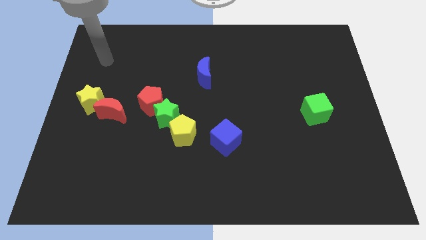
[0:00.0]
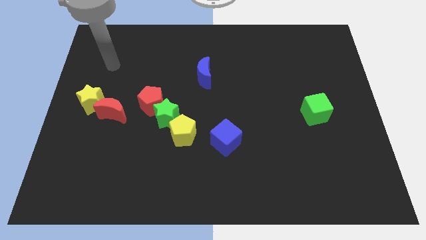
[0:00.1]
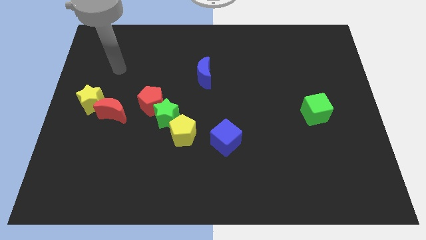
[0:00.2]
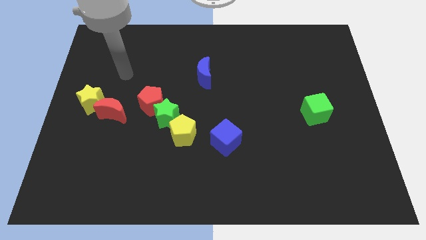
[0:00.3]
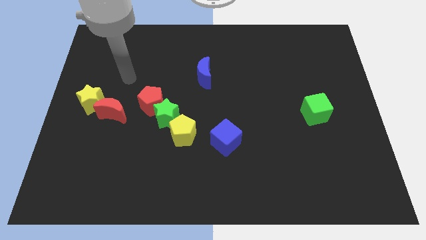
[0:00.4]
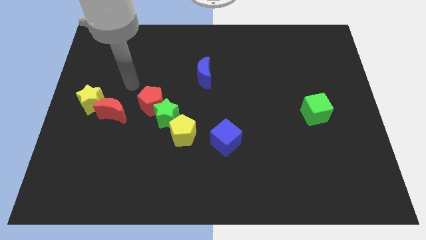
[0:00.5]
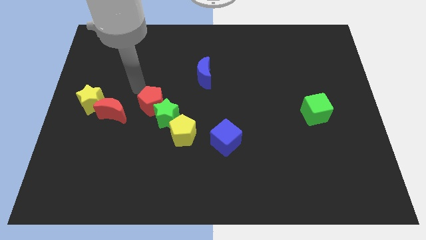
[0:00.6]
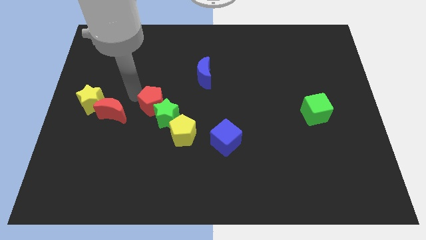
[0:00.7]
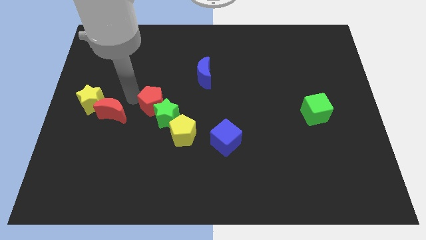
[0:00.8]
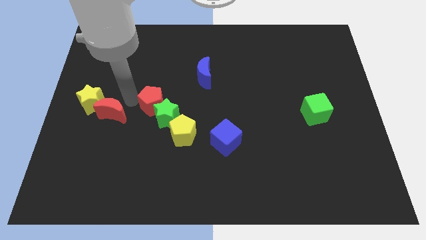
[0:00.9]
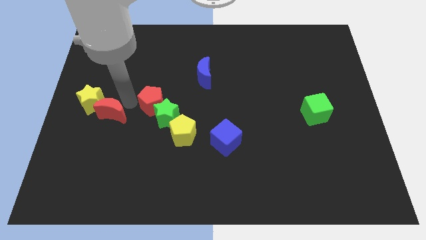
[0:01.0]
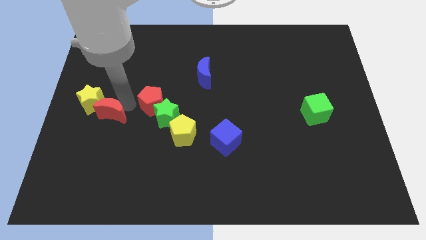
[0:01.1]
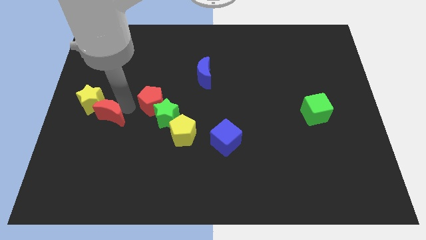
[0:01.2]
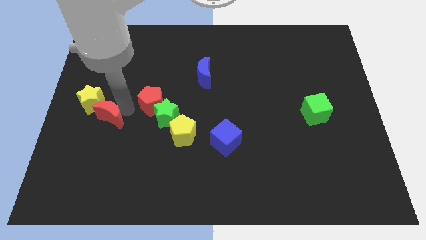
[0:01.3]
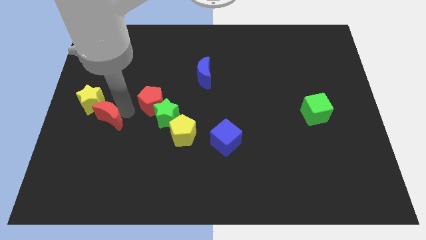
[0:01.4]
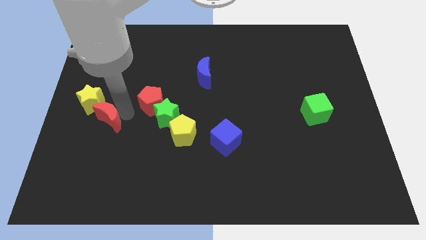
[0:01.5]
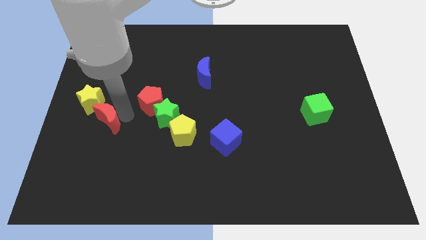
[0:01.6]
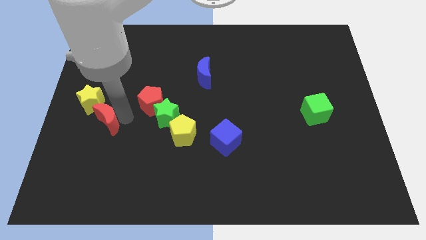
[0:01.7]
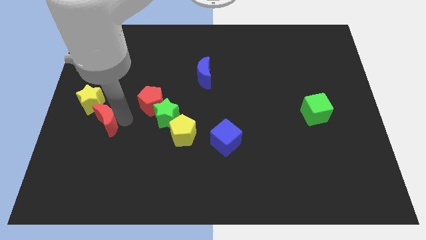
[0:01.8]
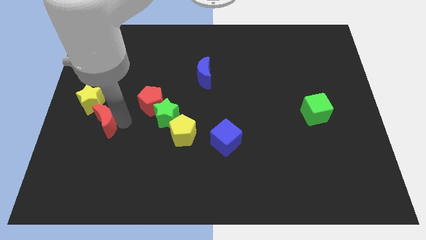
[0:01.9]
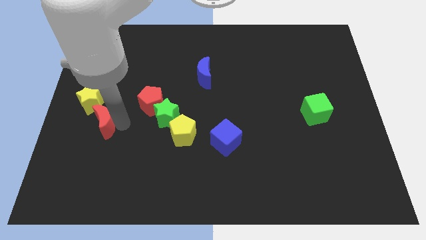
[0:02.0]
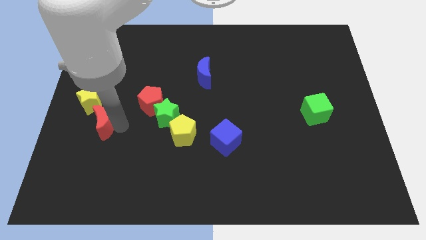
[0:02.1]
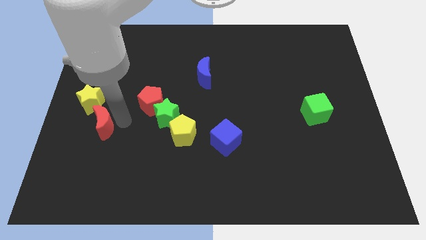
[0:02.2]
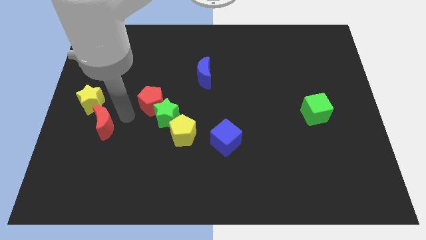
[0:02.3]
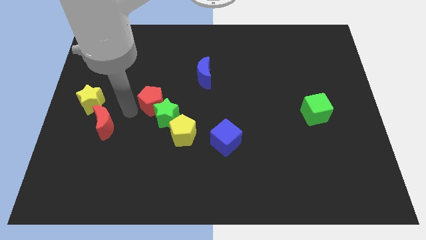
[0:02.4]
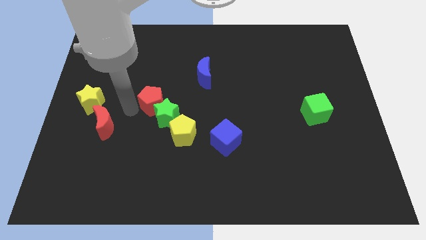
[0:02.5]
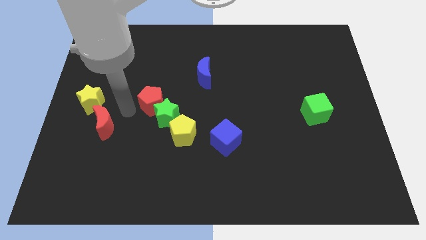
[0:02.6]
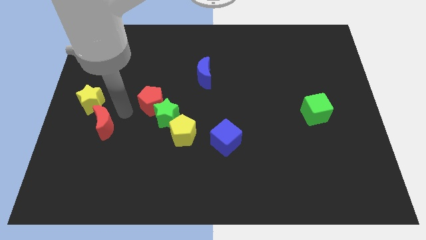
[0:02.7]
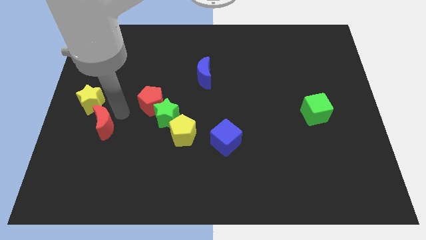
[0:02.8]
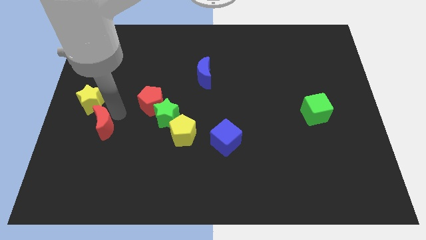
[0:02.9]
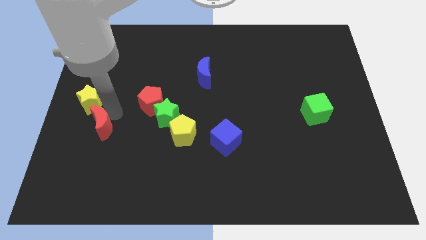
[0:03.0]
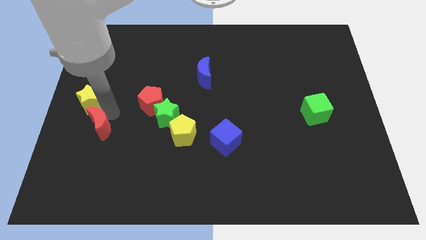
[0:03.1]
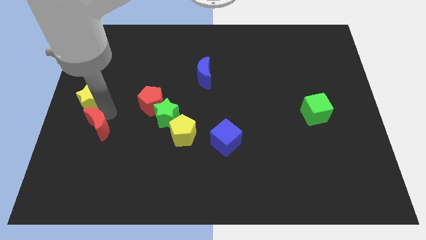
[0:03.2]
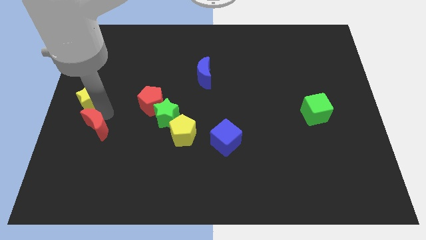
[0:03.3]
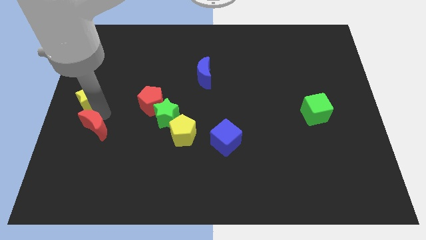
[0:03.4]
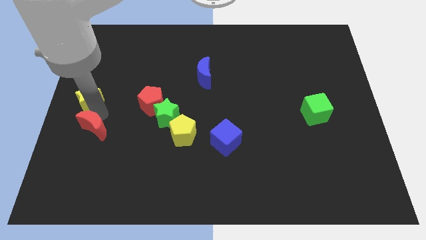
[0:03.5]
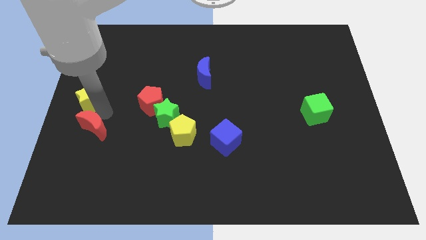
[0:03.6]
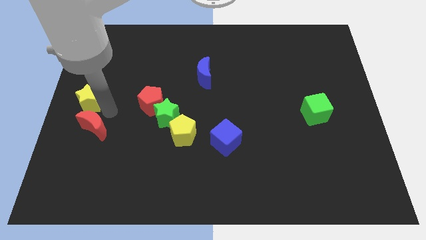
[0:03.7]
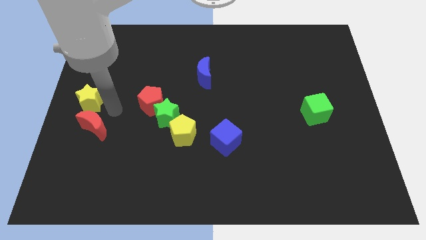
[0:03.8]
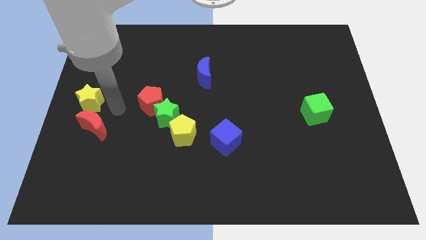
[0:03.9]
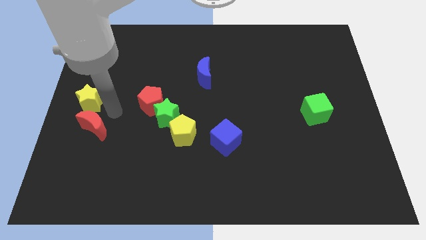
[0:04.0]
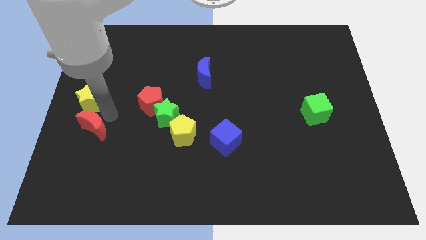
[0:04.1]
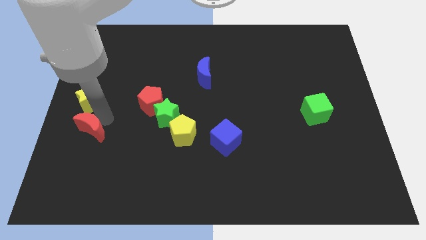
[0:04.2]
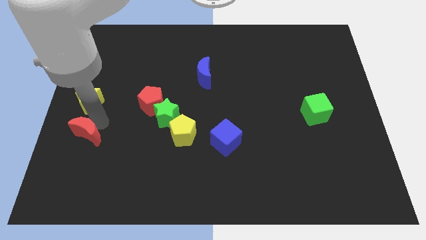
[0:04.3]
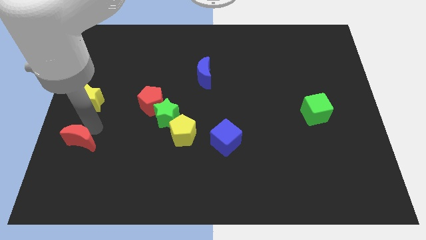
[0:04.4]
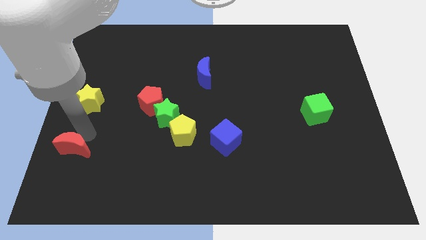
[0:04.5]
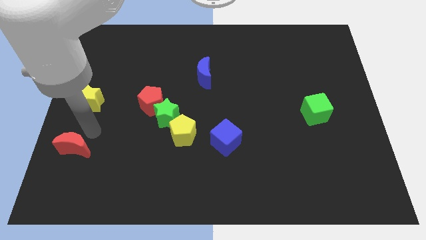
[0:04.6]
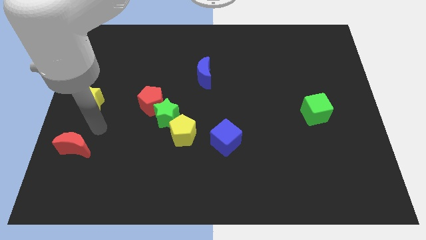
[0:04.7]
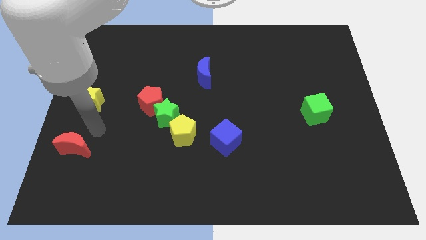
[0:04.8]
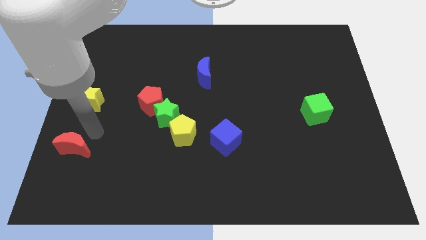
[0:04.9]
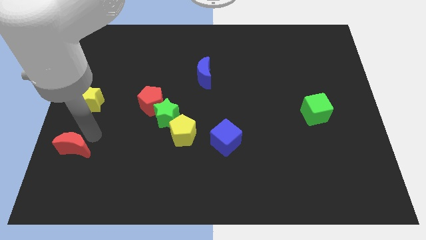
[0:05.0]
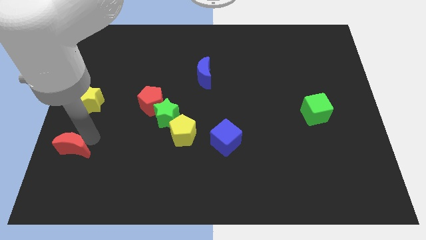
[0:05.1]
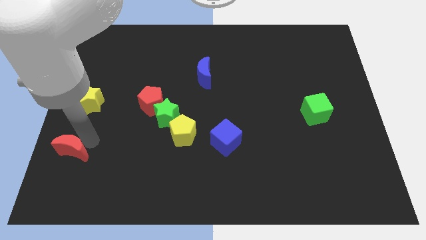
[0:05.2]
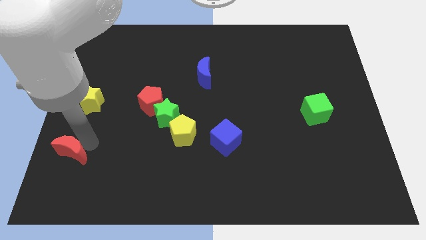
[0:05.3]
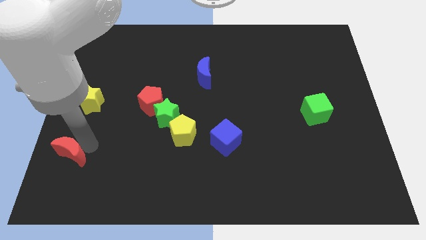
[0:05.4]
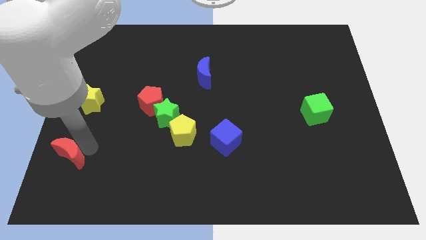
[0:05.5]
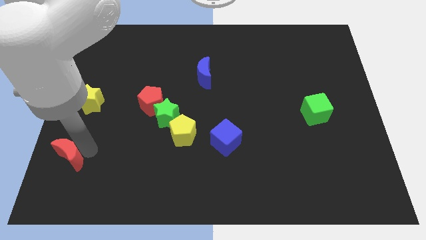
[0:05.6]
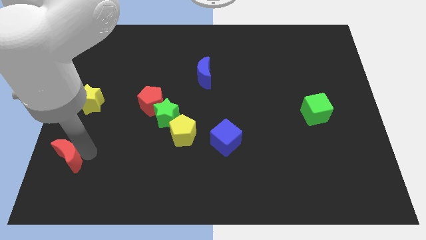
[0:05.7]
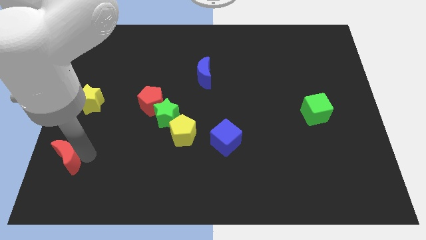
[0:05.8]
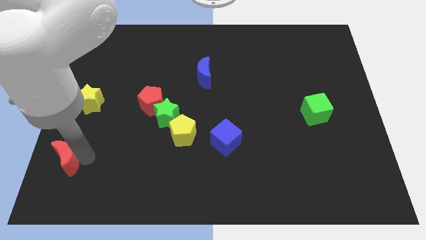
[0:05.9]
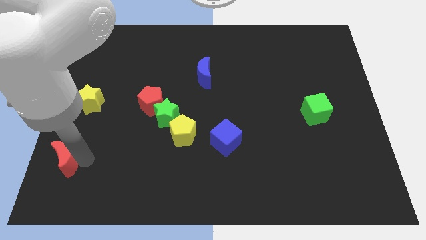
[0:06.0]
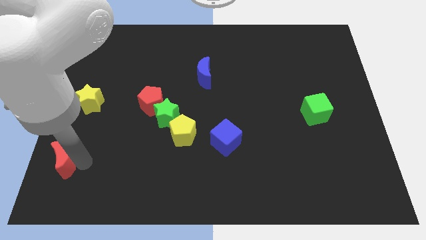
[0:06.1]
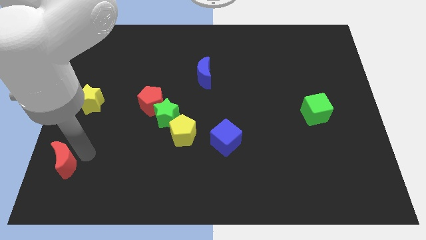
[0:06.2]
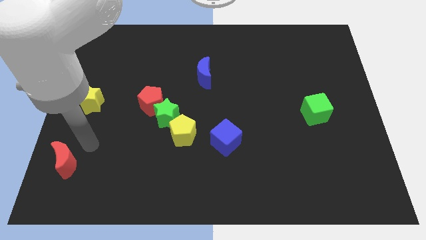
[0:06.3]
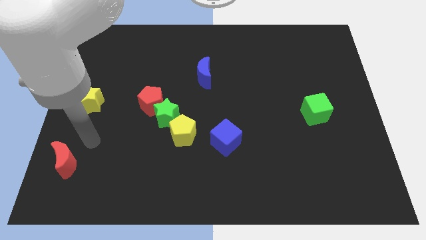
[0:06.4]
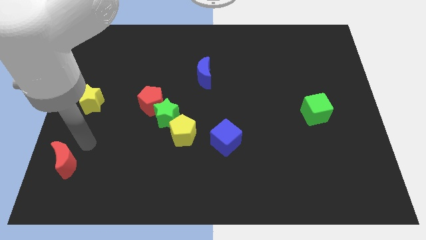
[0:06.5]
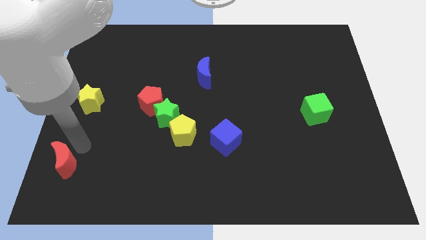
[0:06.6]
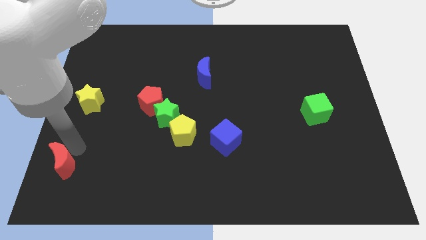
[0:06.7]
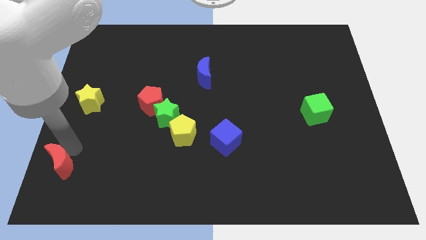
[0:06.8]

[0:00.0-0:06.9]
move the red moon to the lower left corner
